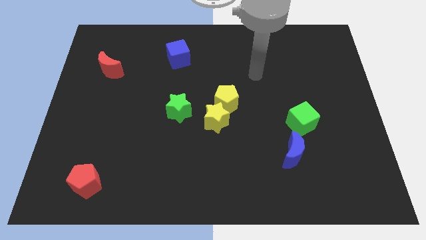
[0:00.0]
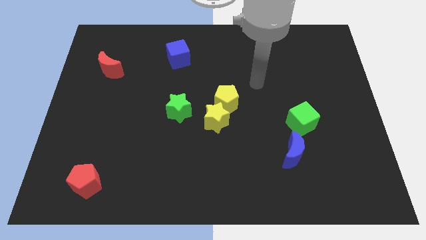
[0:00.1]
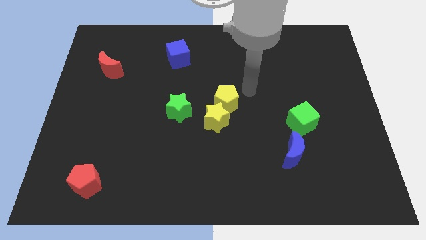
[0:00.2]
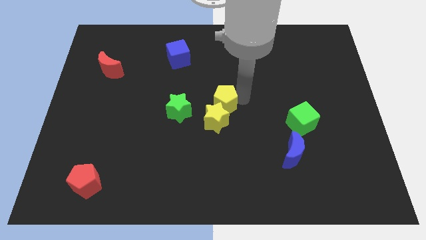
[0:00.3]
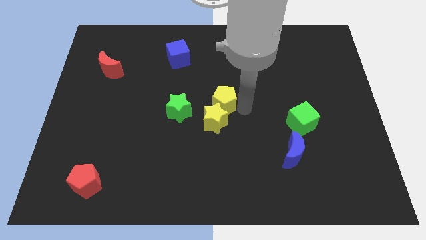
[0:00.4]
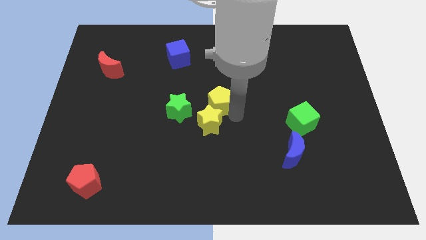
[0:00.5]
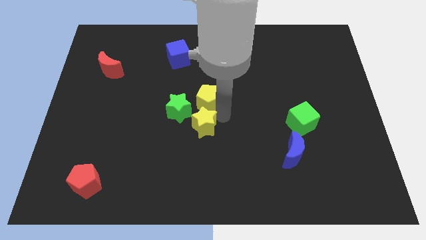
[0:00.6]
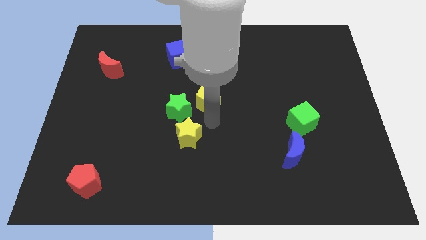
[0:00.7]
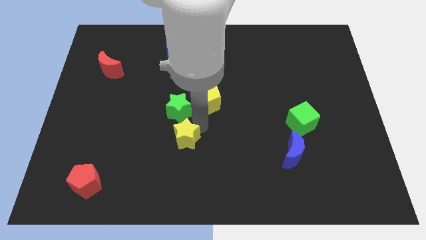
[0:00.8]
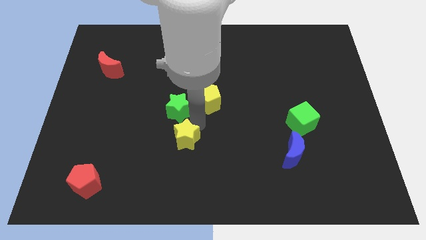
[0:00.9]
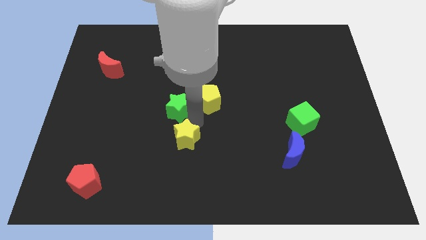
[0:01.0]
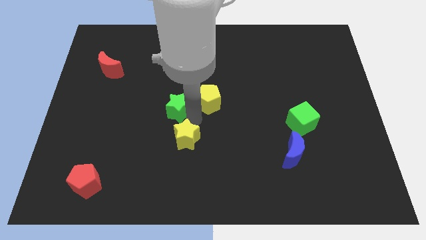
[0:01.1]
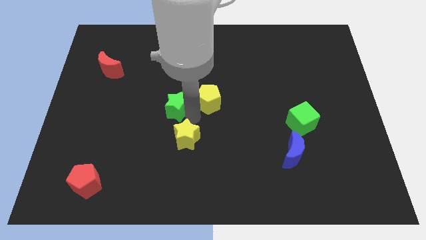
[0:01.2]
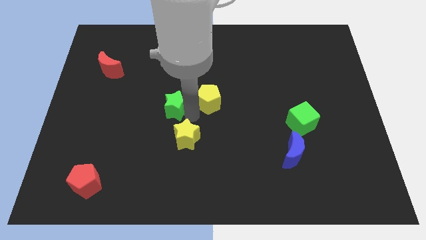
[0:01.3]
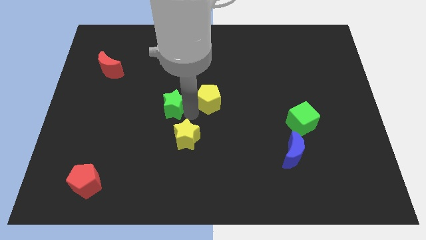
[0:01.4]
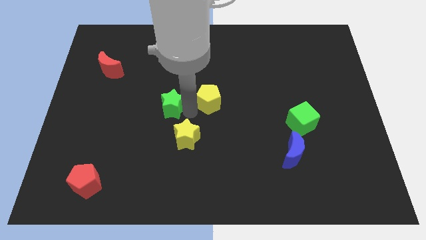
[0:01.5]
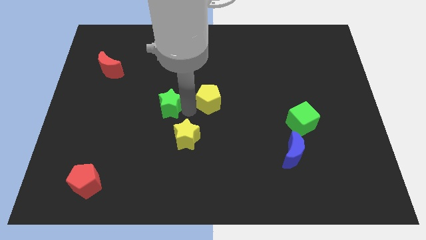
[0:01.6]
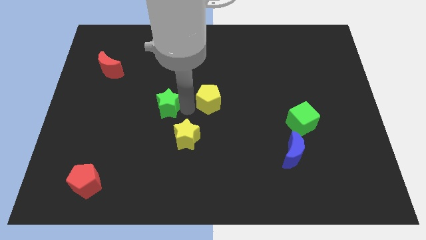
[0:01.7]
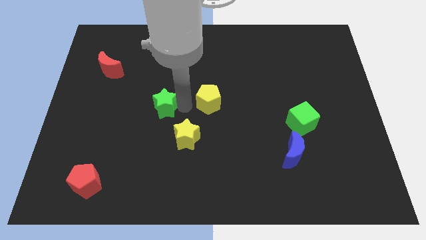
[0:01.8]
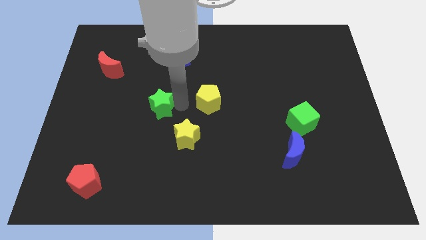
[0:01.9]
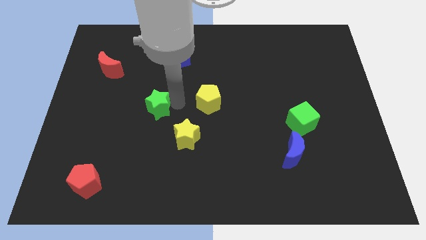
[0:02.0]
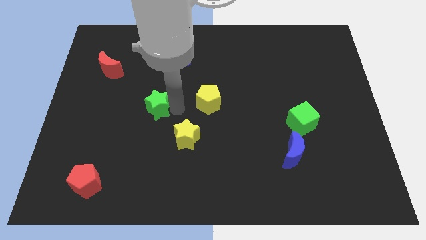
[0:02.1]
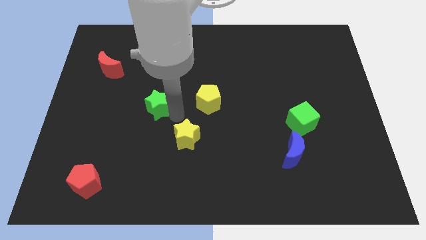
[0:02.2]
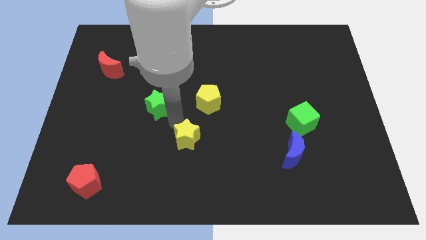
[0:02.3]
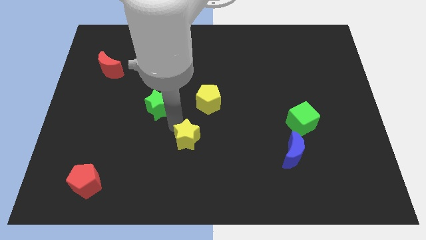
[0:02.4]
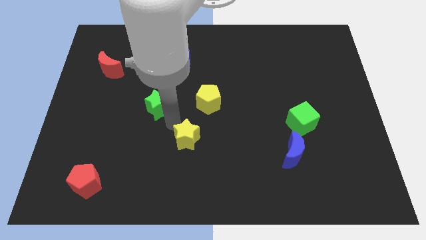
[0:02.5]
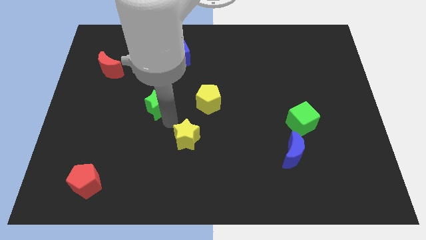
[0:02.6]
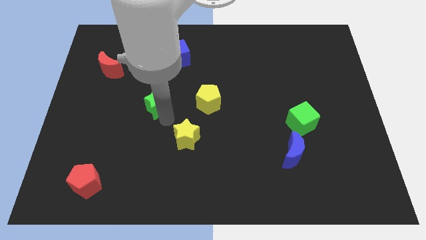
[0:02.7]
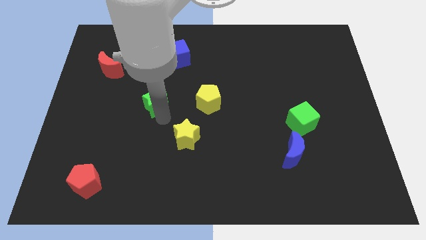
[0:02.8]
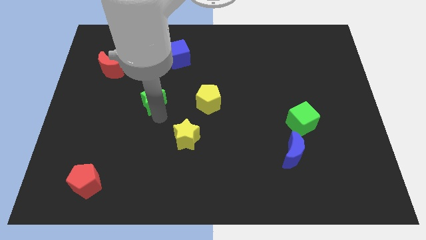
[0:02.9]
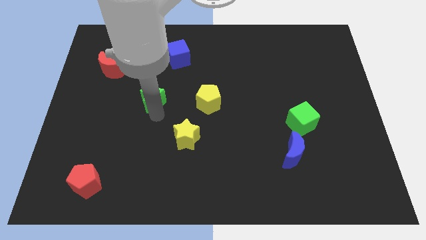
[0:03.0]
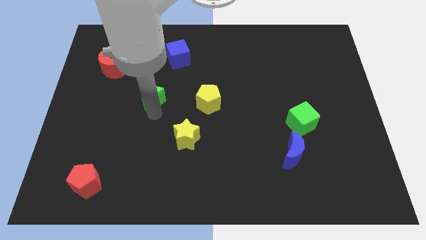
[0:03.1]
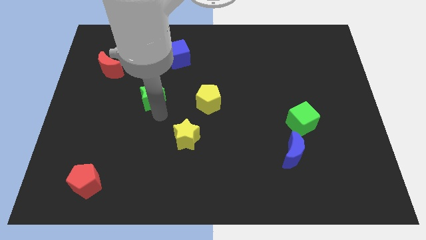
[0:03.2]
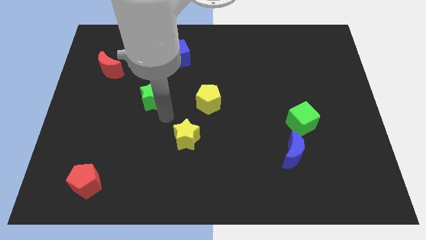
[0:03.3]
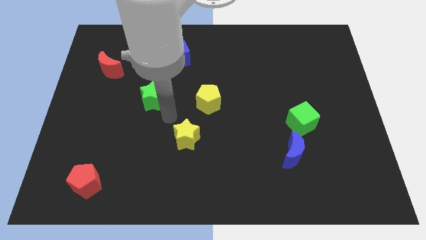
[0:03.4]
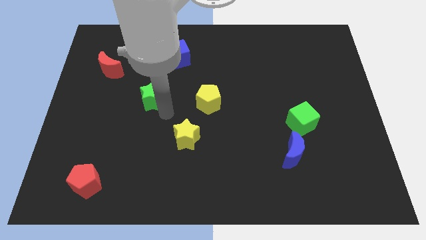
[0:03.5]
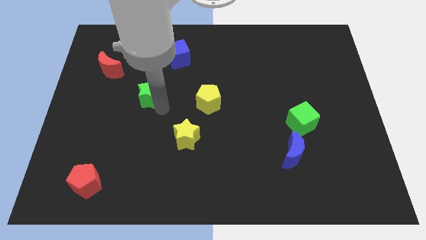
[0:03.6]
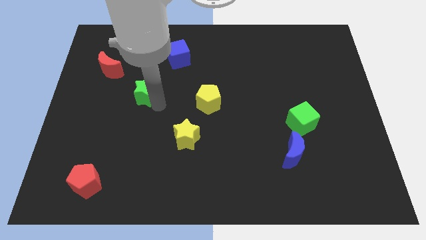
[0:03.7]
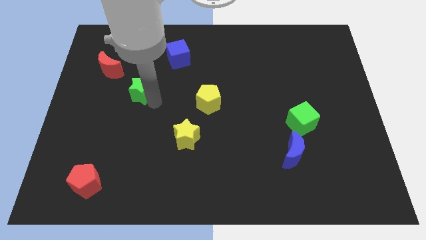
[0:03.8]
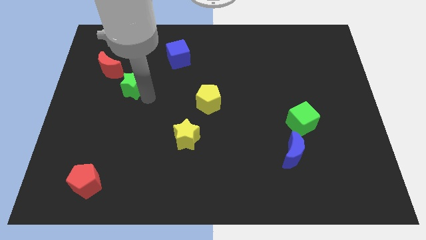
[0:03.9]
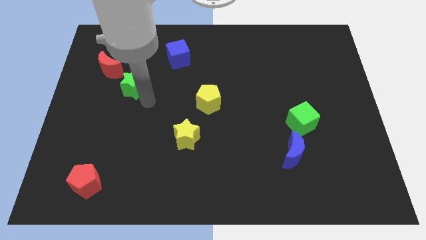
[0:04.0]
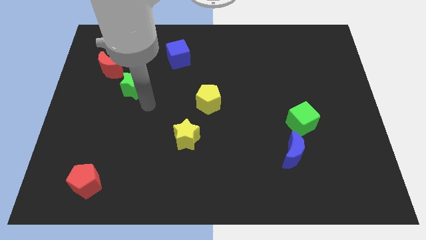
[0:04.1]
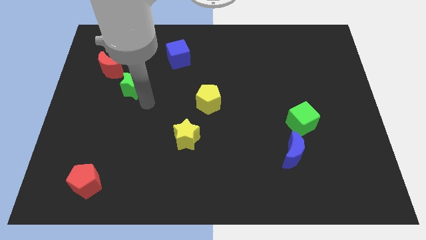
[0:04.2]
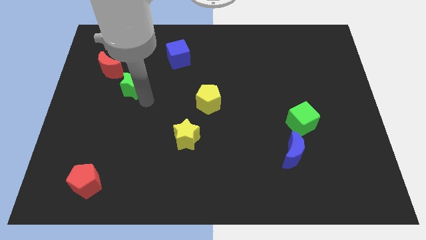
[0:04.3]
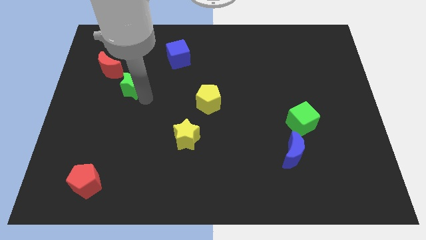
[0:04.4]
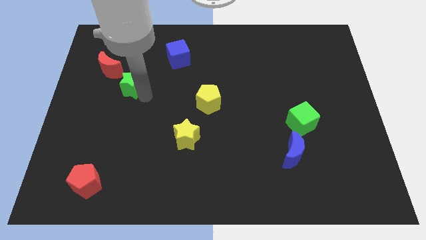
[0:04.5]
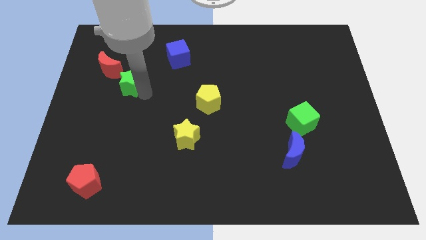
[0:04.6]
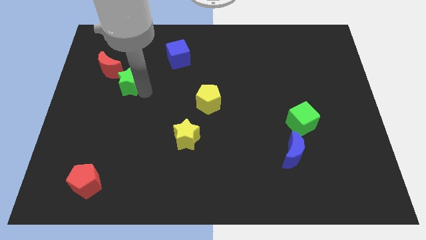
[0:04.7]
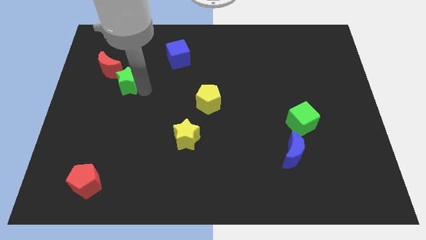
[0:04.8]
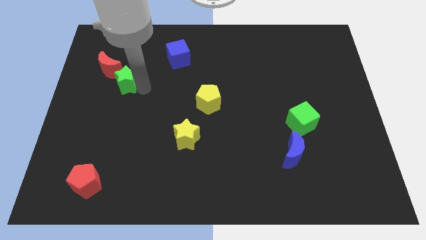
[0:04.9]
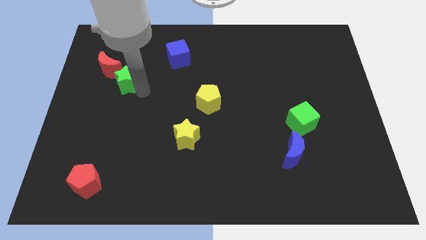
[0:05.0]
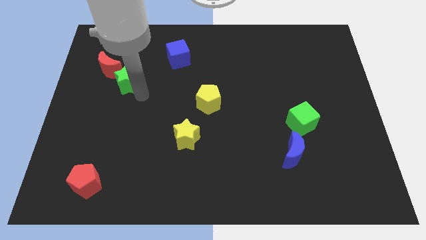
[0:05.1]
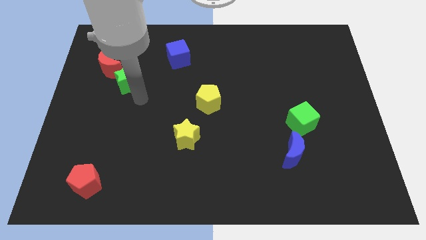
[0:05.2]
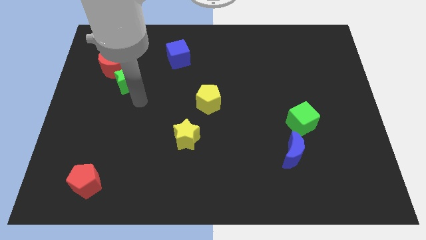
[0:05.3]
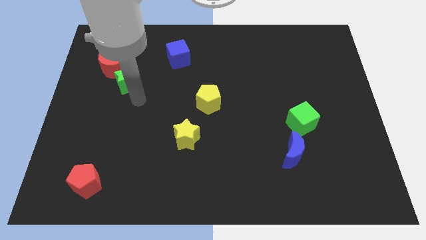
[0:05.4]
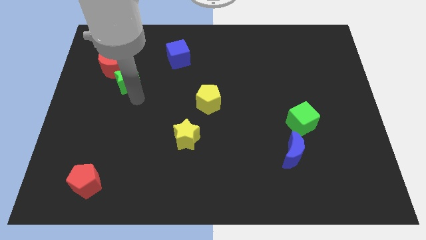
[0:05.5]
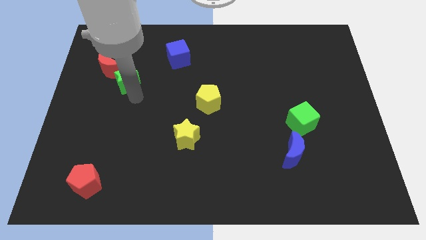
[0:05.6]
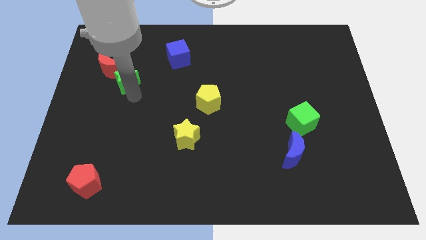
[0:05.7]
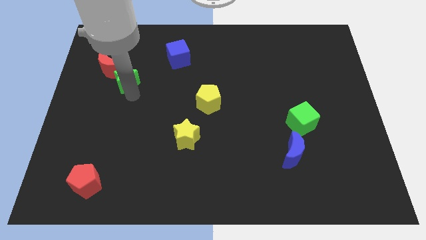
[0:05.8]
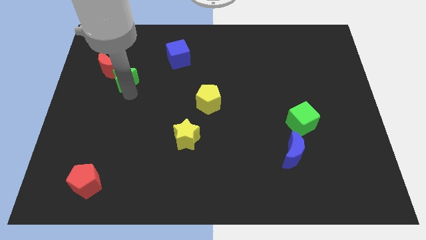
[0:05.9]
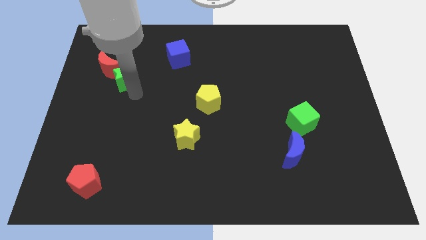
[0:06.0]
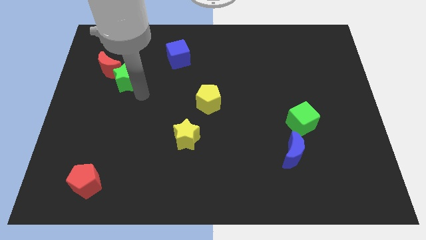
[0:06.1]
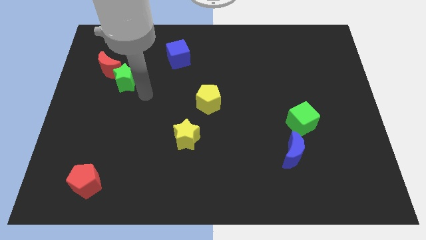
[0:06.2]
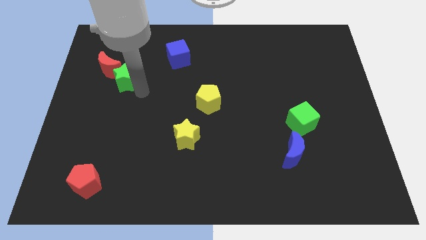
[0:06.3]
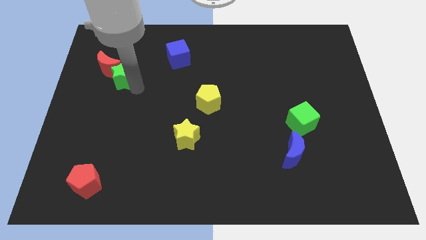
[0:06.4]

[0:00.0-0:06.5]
move the green star close to the red moon

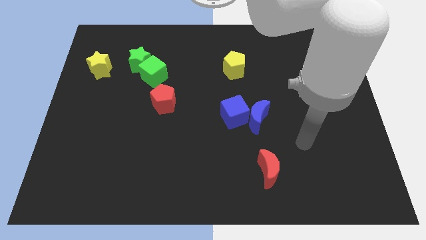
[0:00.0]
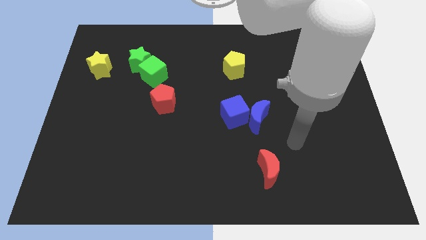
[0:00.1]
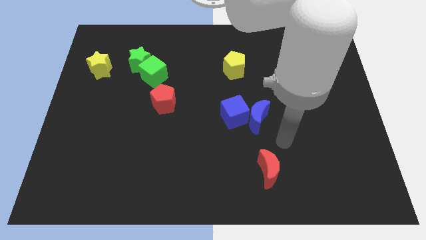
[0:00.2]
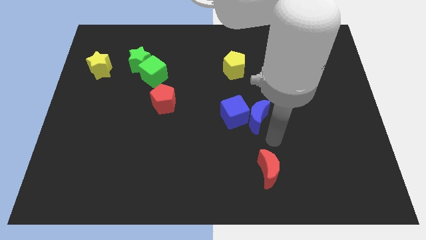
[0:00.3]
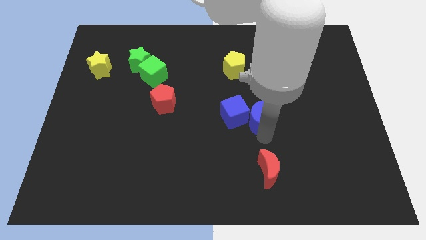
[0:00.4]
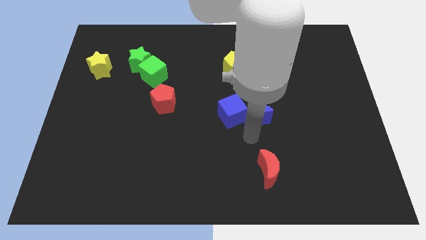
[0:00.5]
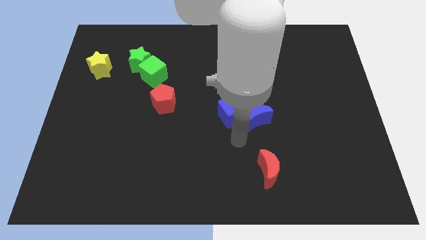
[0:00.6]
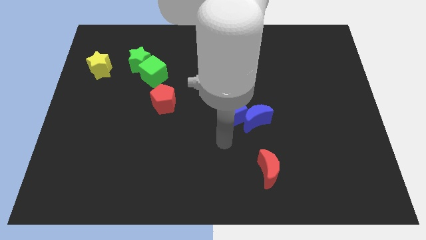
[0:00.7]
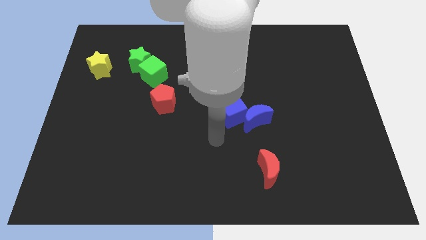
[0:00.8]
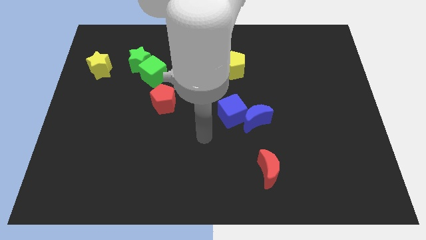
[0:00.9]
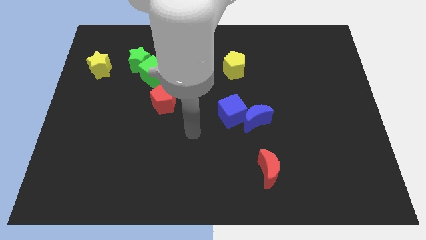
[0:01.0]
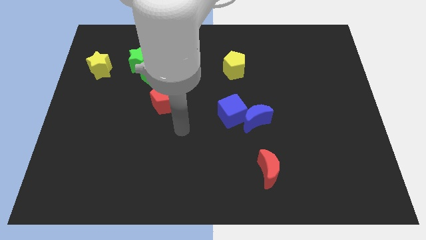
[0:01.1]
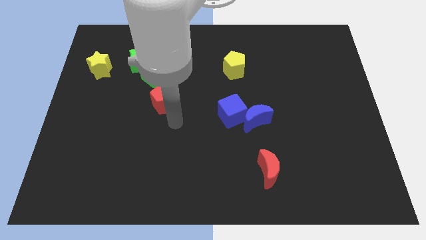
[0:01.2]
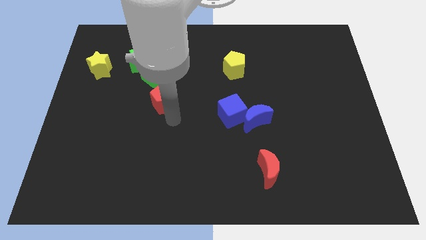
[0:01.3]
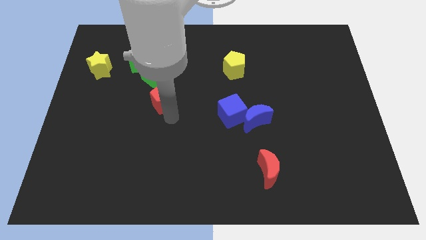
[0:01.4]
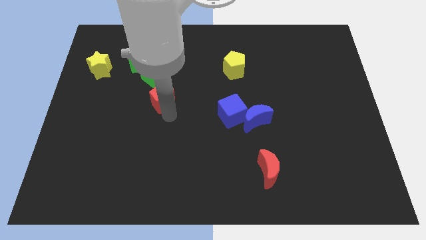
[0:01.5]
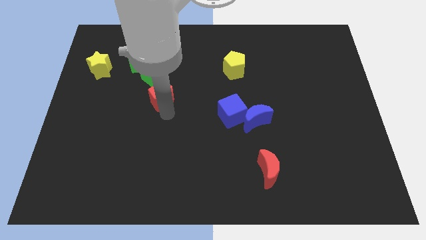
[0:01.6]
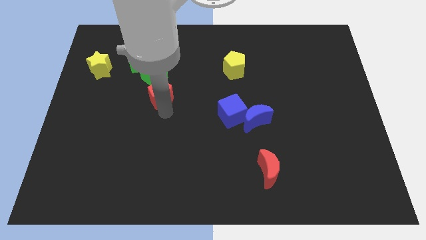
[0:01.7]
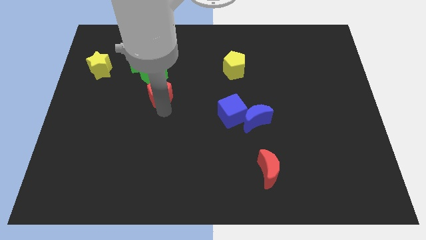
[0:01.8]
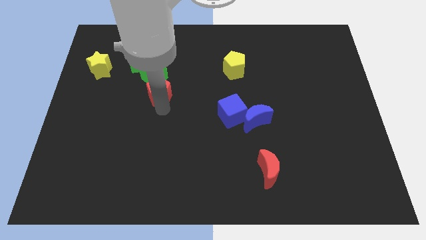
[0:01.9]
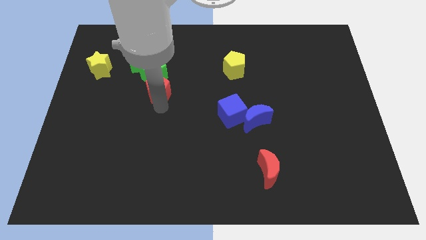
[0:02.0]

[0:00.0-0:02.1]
slide the red pentagon close to the green cube
